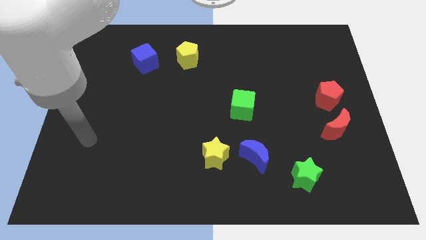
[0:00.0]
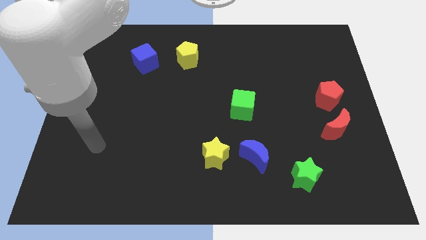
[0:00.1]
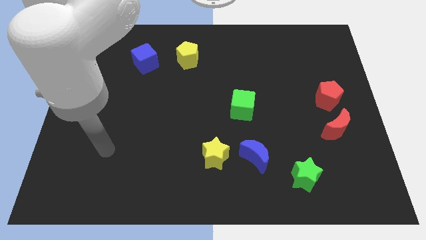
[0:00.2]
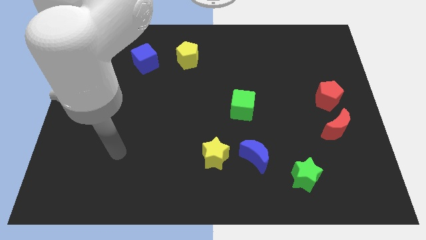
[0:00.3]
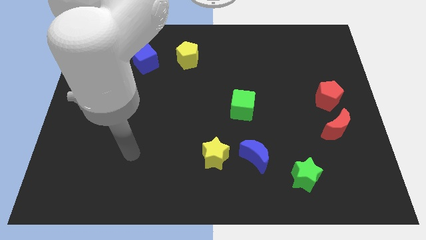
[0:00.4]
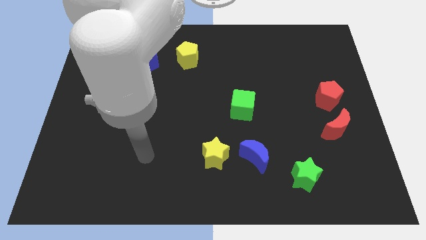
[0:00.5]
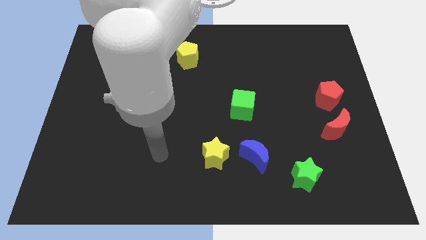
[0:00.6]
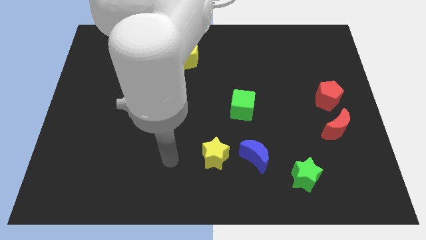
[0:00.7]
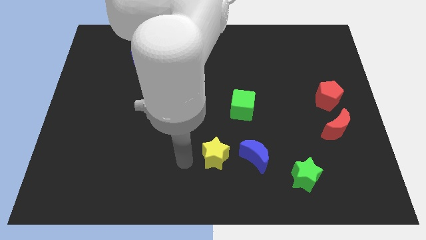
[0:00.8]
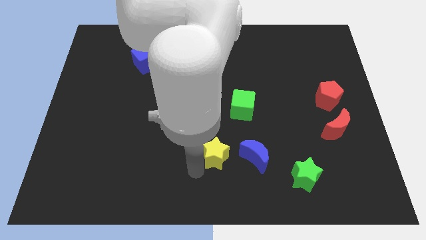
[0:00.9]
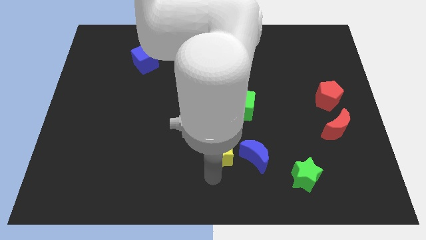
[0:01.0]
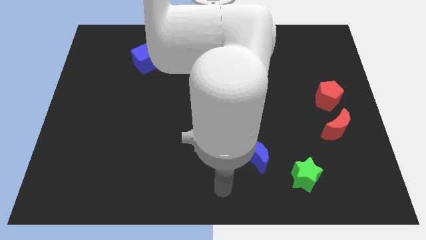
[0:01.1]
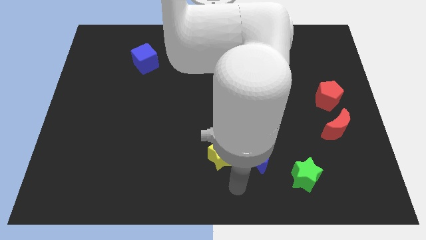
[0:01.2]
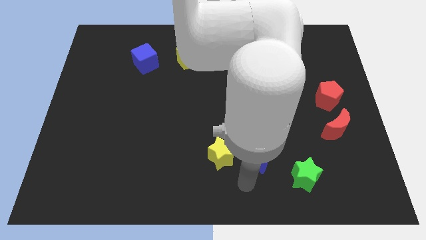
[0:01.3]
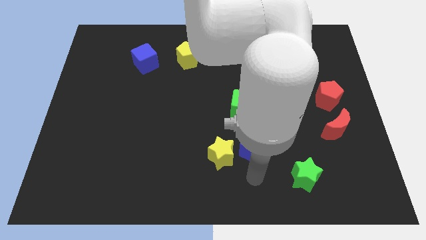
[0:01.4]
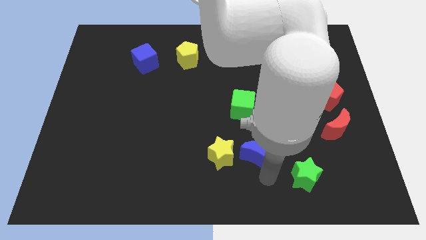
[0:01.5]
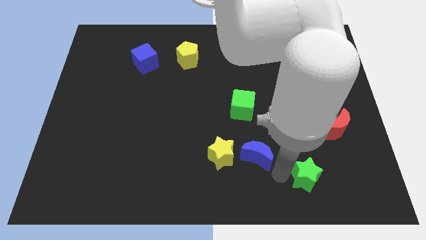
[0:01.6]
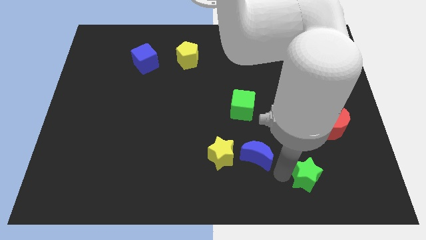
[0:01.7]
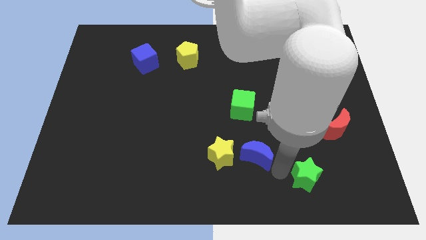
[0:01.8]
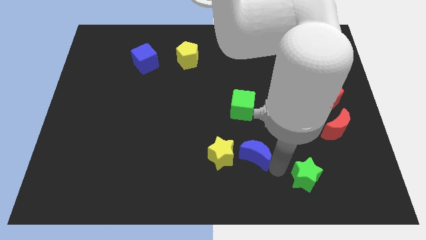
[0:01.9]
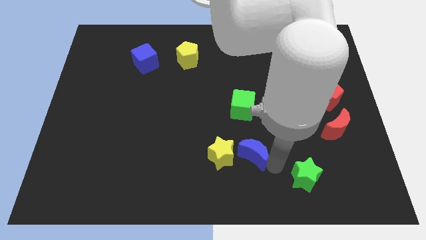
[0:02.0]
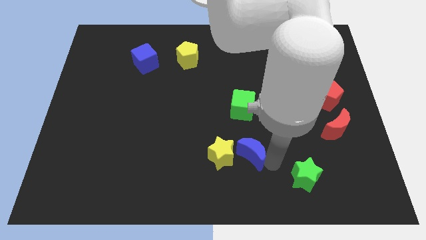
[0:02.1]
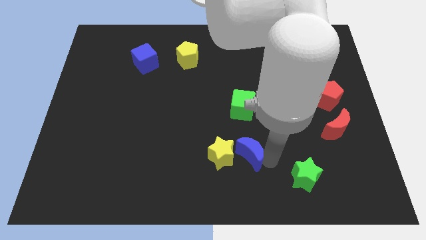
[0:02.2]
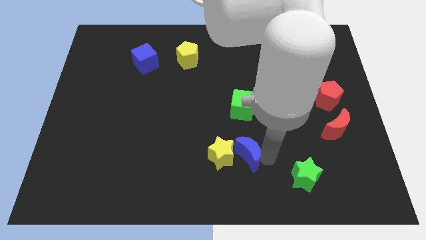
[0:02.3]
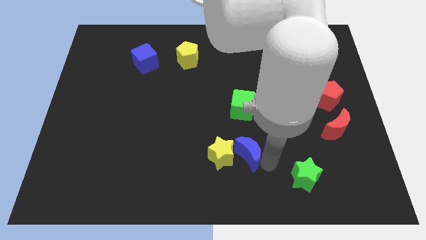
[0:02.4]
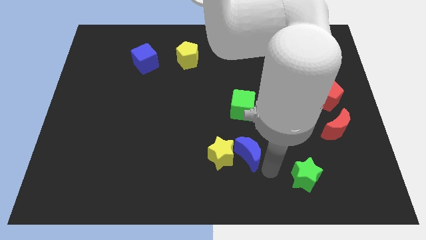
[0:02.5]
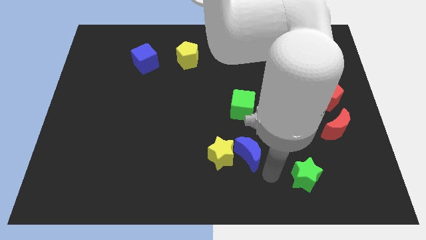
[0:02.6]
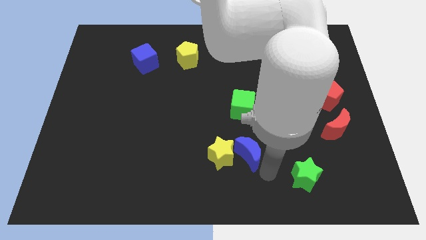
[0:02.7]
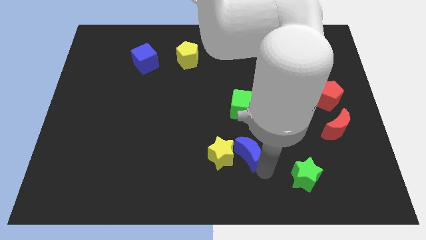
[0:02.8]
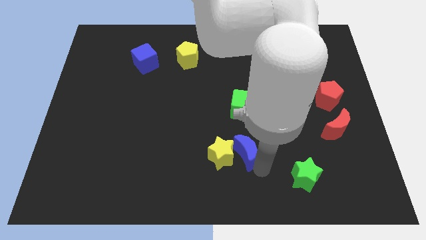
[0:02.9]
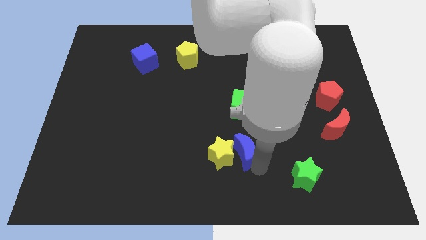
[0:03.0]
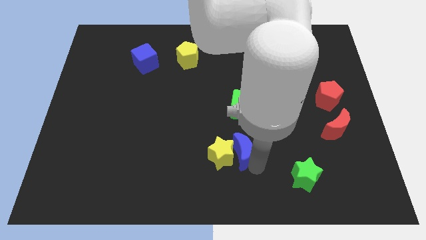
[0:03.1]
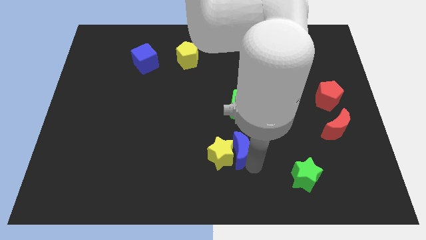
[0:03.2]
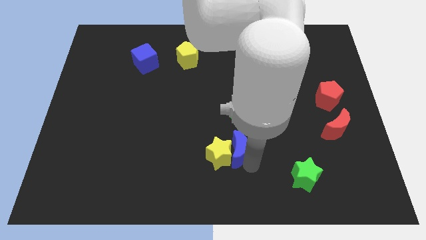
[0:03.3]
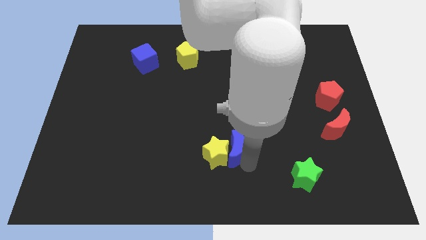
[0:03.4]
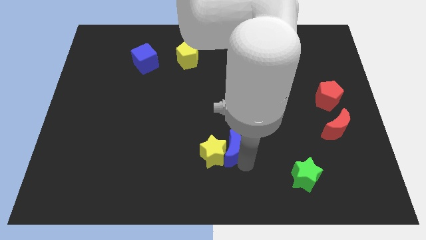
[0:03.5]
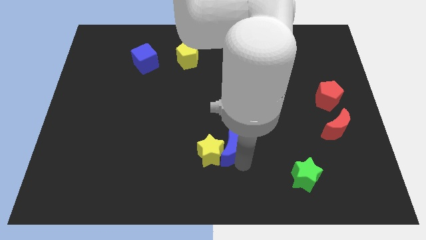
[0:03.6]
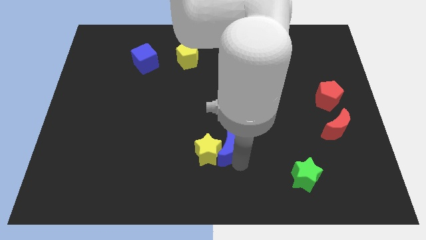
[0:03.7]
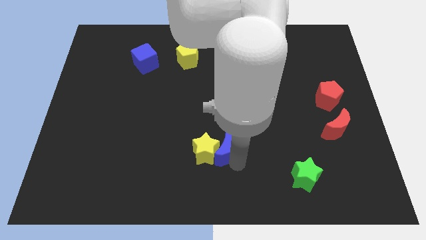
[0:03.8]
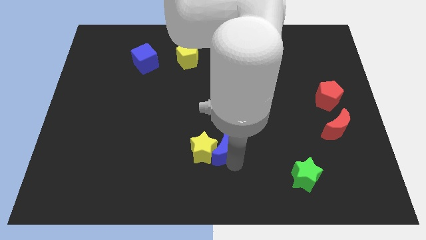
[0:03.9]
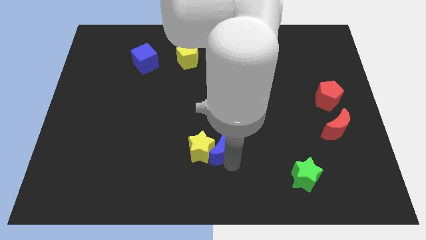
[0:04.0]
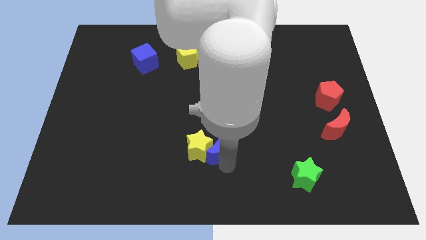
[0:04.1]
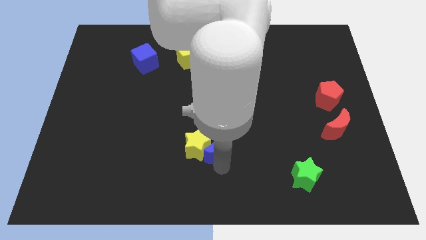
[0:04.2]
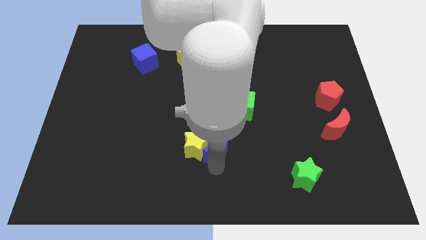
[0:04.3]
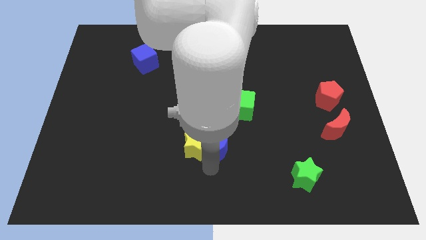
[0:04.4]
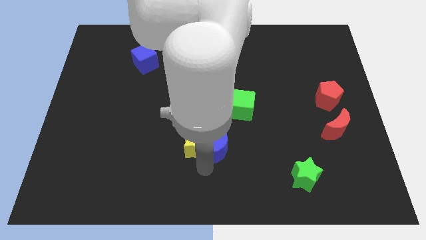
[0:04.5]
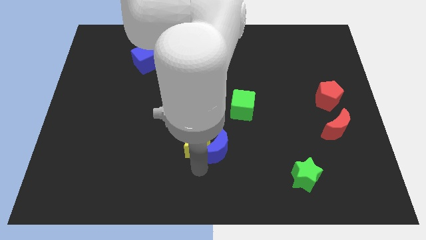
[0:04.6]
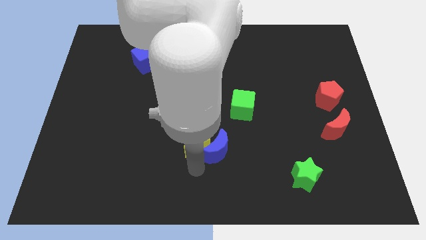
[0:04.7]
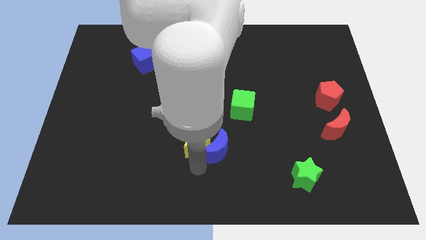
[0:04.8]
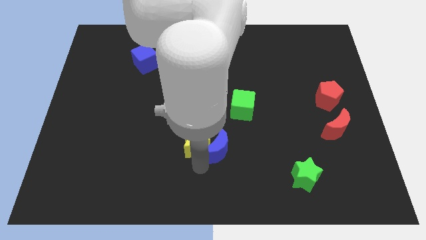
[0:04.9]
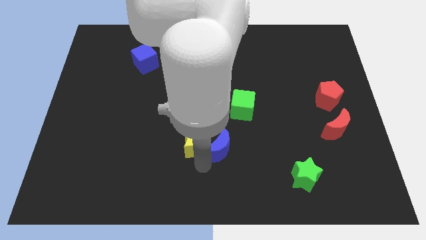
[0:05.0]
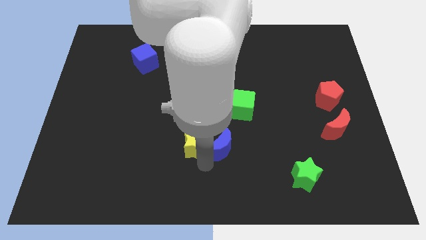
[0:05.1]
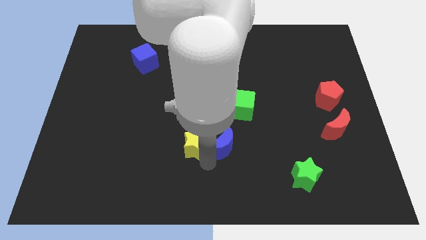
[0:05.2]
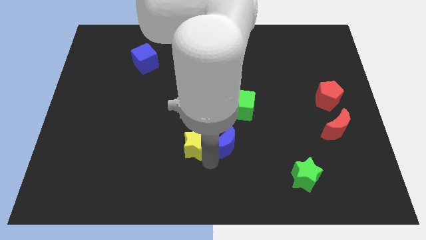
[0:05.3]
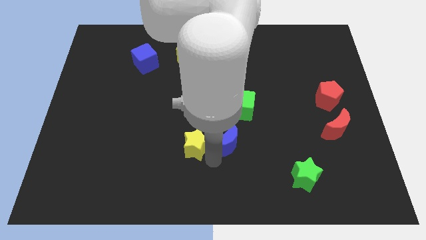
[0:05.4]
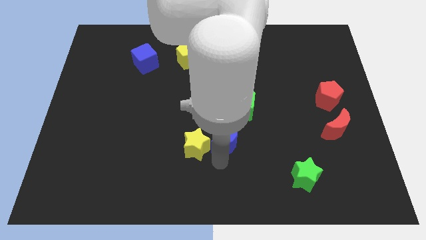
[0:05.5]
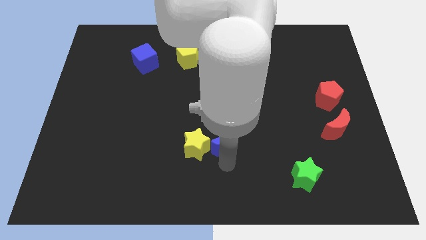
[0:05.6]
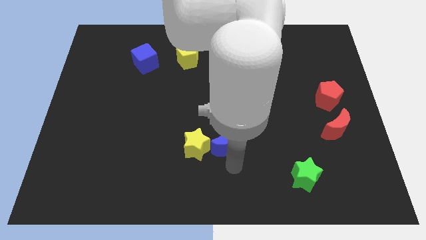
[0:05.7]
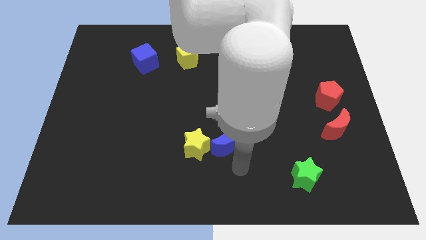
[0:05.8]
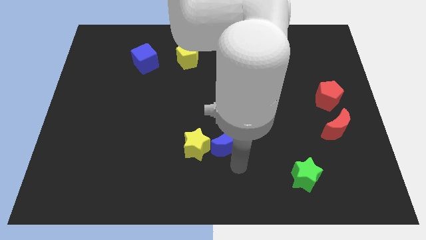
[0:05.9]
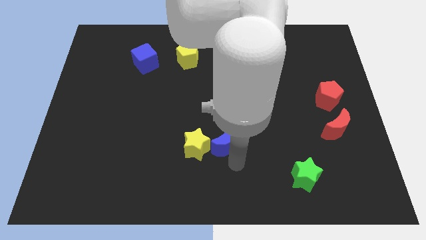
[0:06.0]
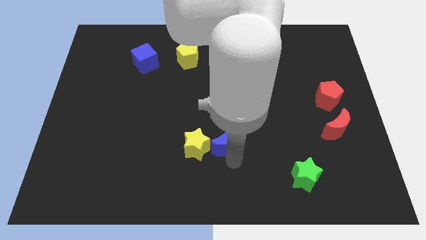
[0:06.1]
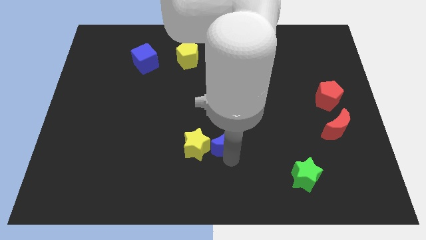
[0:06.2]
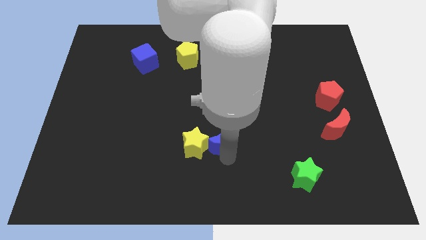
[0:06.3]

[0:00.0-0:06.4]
slightly push the blue moon upwards and to the left diagonally

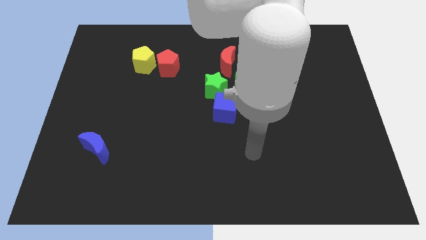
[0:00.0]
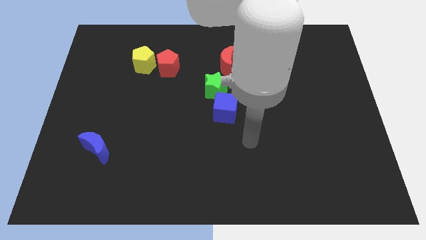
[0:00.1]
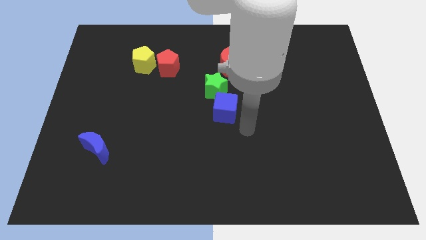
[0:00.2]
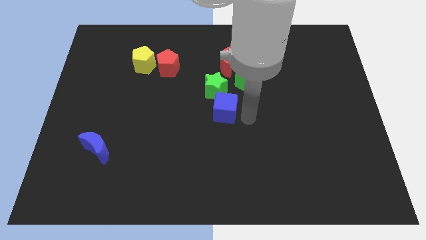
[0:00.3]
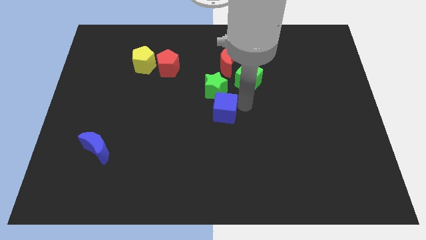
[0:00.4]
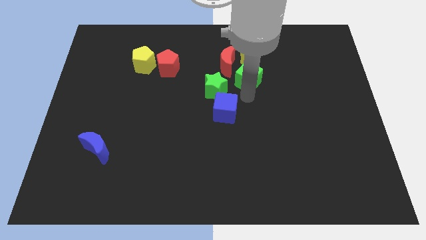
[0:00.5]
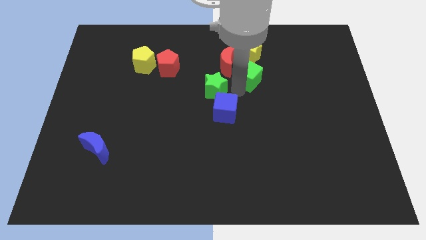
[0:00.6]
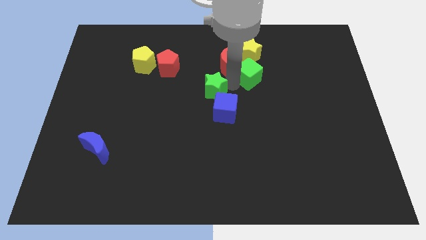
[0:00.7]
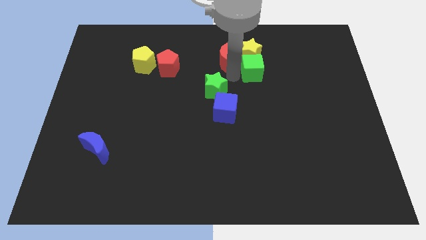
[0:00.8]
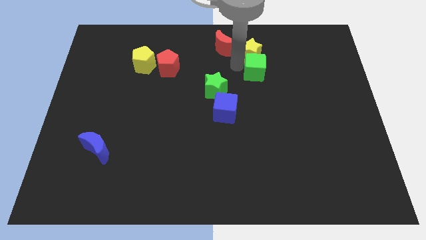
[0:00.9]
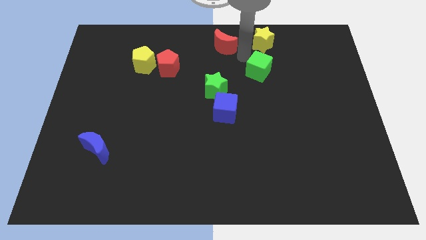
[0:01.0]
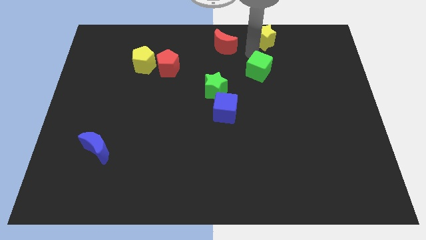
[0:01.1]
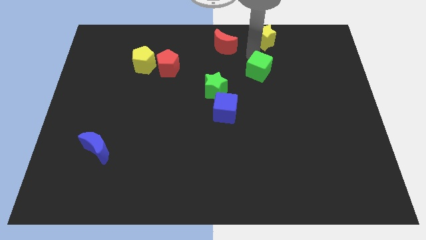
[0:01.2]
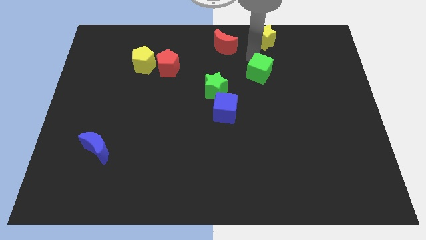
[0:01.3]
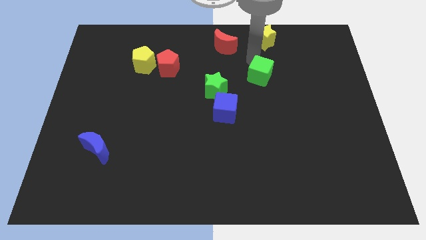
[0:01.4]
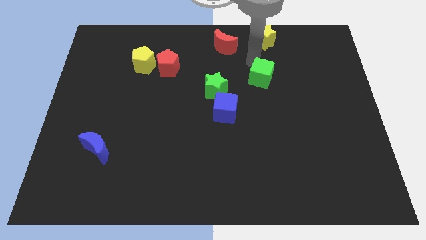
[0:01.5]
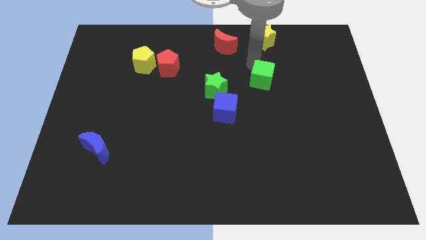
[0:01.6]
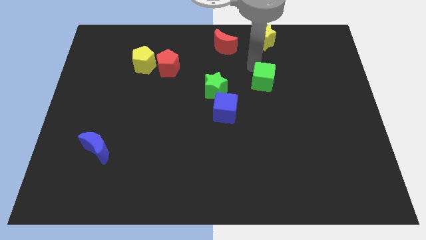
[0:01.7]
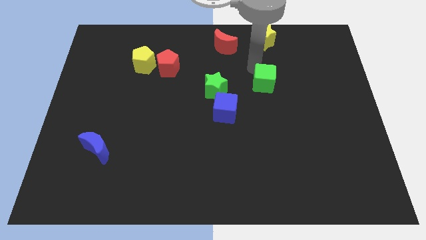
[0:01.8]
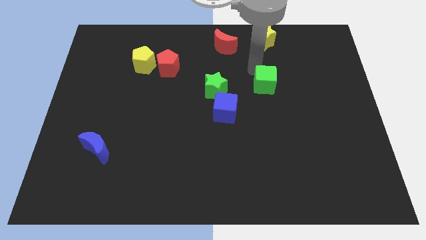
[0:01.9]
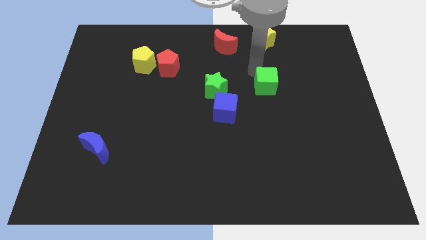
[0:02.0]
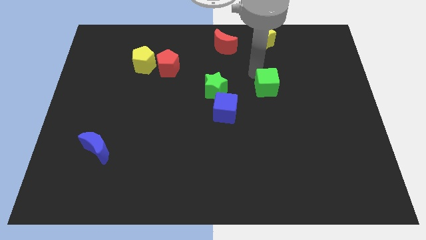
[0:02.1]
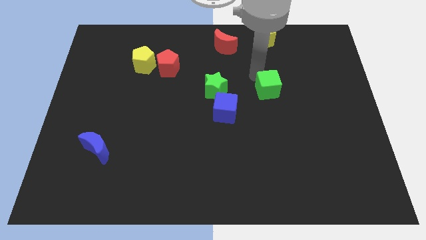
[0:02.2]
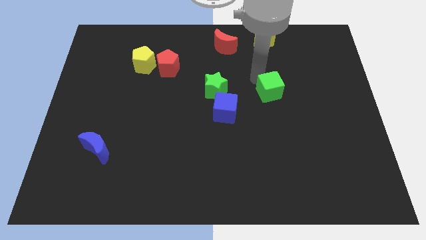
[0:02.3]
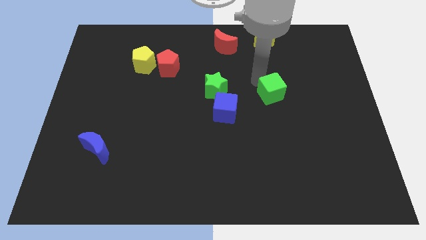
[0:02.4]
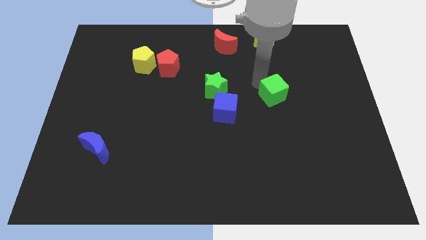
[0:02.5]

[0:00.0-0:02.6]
slide the green cube downwards and to the right somewhat
